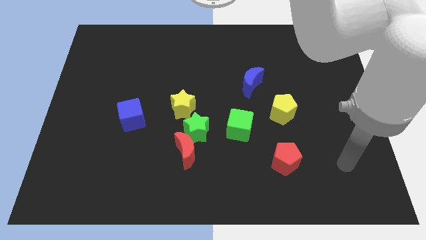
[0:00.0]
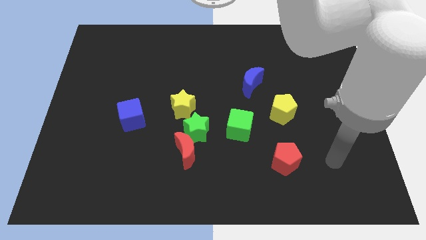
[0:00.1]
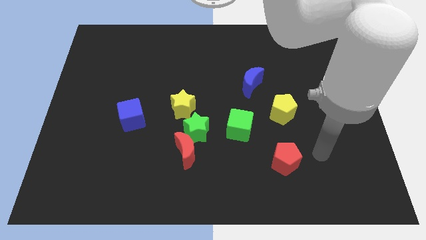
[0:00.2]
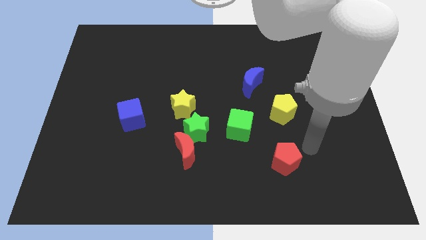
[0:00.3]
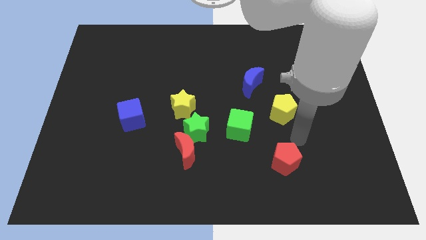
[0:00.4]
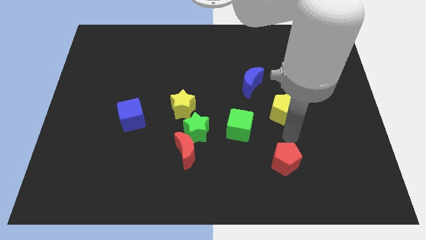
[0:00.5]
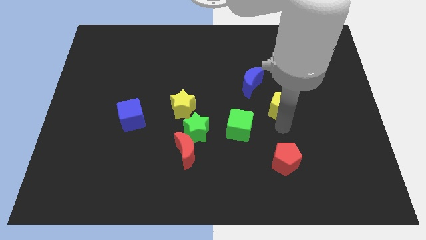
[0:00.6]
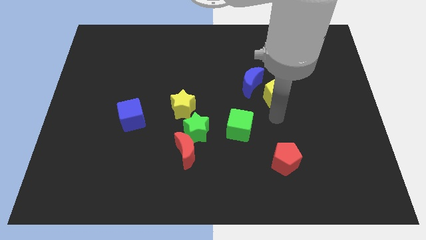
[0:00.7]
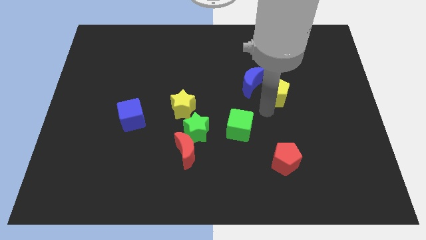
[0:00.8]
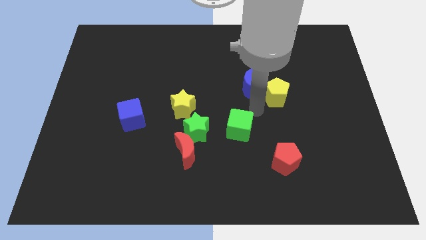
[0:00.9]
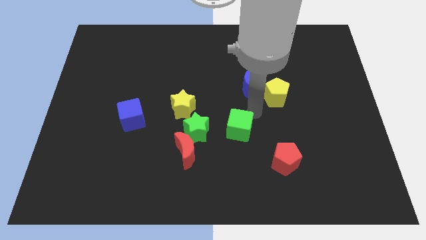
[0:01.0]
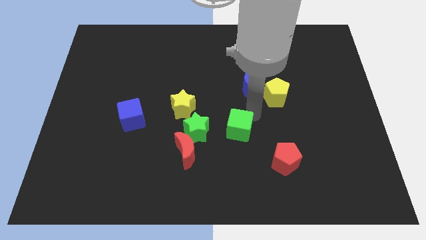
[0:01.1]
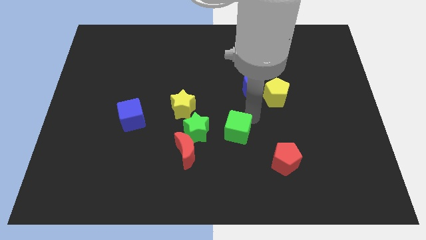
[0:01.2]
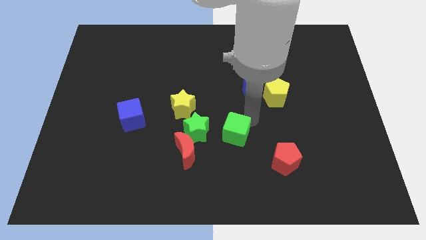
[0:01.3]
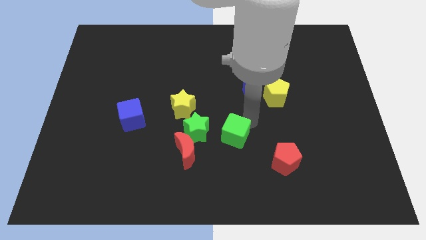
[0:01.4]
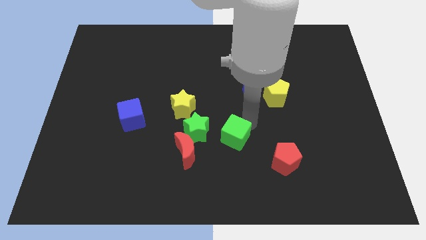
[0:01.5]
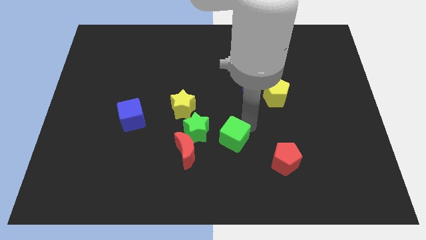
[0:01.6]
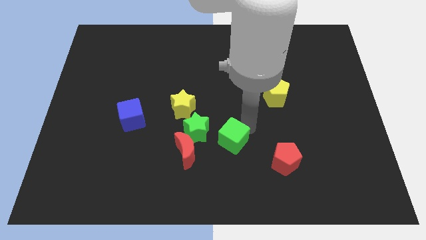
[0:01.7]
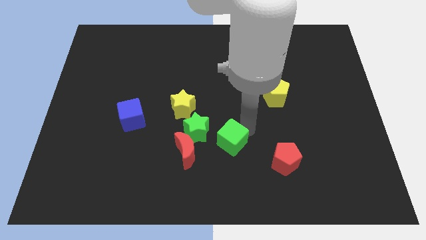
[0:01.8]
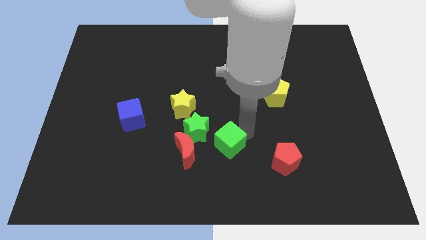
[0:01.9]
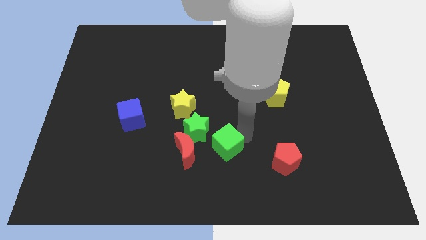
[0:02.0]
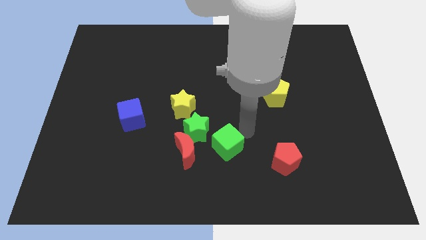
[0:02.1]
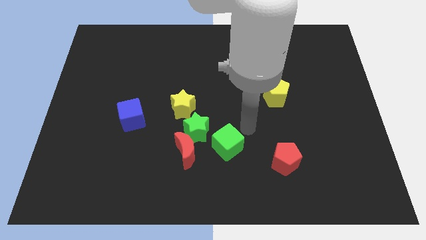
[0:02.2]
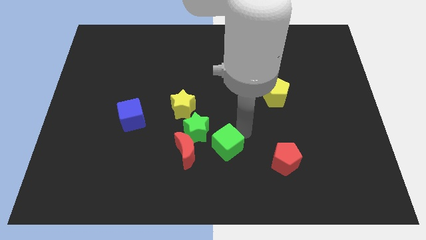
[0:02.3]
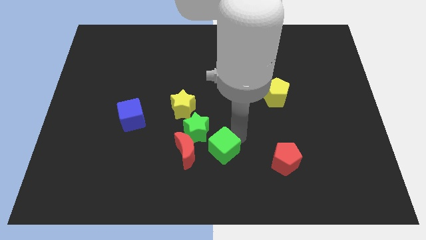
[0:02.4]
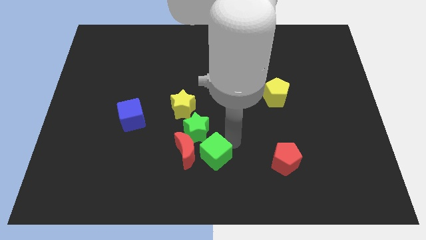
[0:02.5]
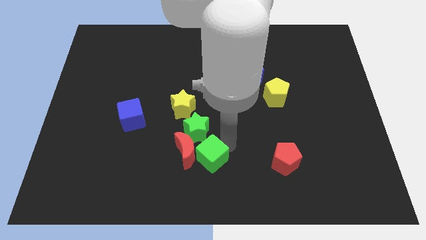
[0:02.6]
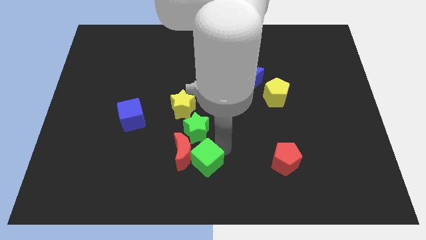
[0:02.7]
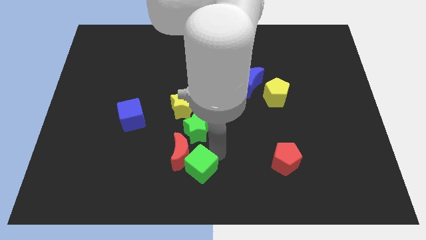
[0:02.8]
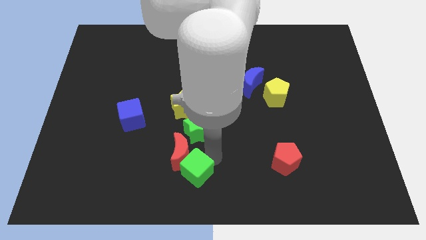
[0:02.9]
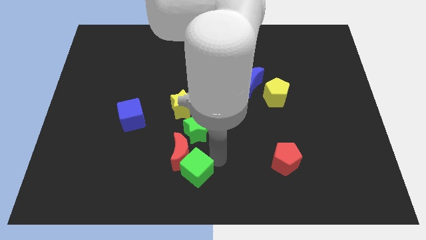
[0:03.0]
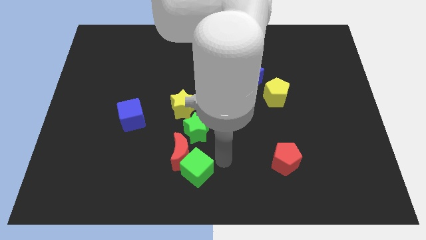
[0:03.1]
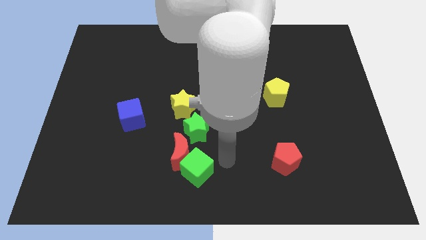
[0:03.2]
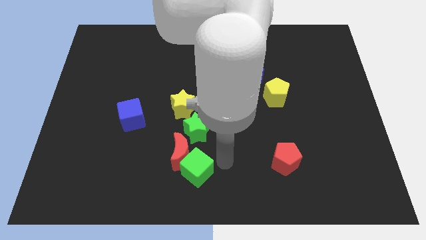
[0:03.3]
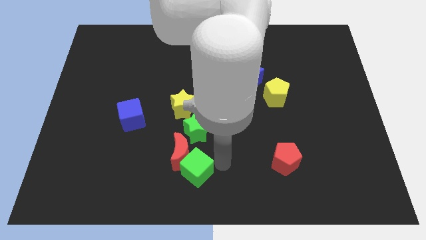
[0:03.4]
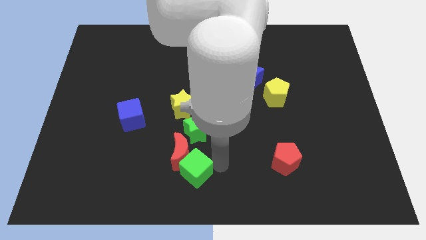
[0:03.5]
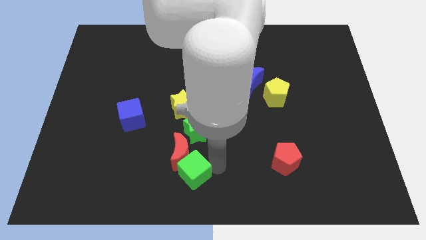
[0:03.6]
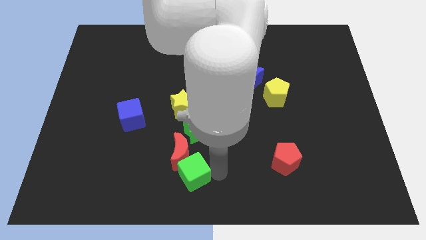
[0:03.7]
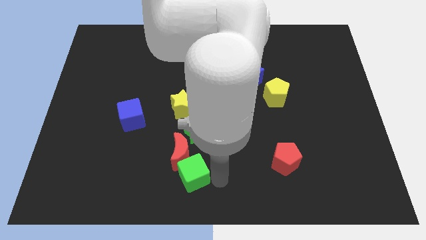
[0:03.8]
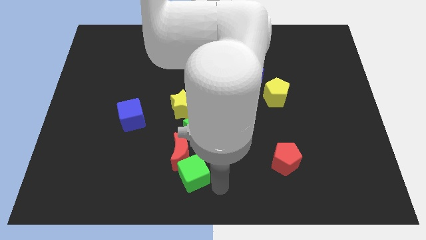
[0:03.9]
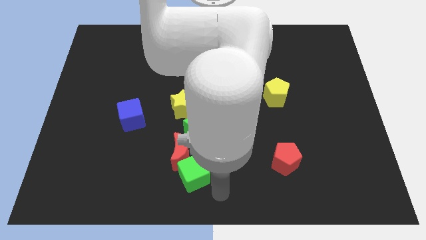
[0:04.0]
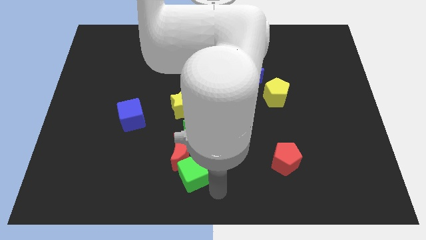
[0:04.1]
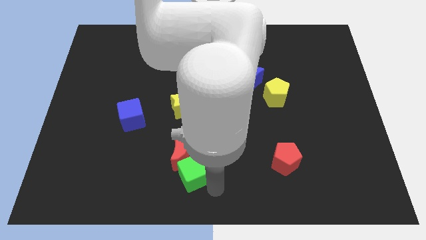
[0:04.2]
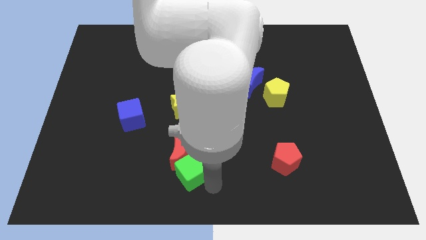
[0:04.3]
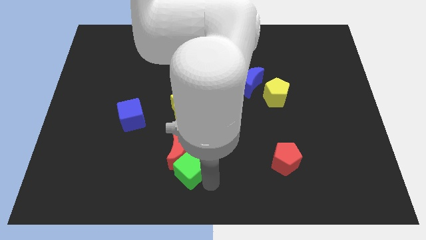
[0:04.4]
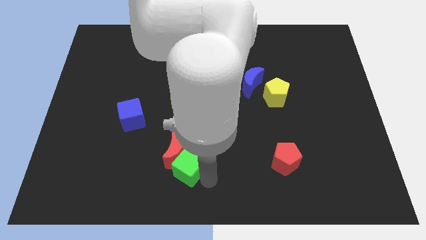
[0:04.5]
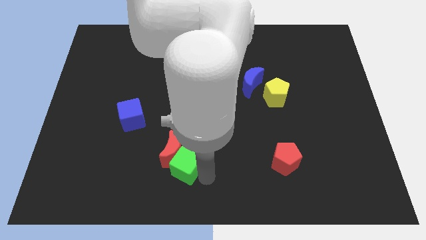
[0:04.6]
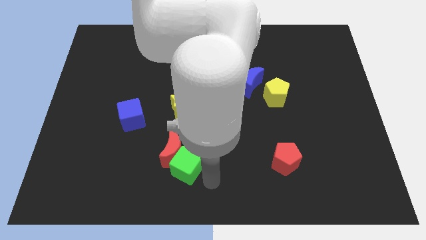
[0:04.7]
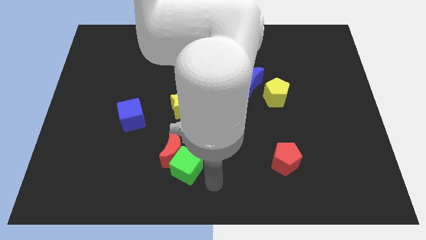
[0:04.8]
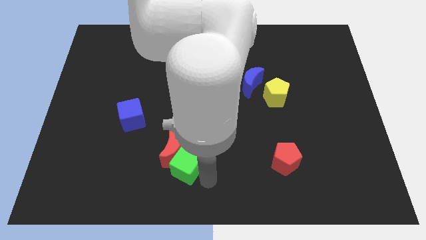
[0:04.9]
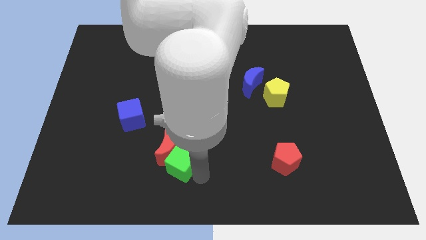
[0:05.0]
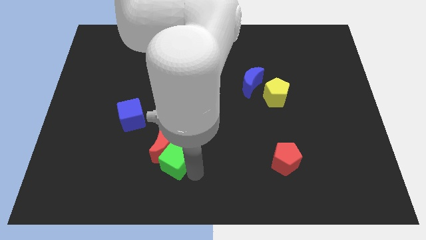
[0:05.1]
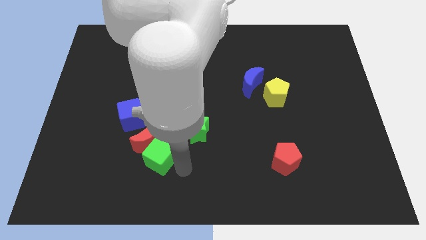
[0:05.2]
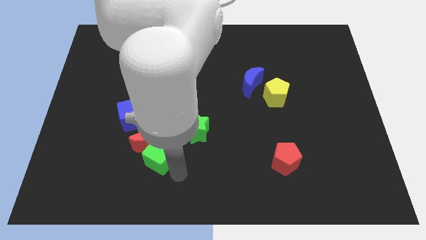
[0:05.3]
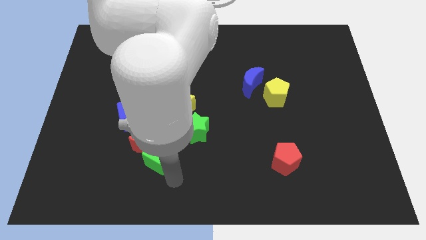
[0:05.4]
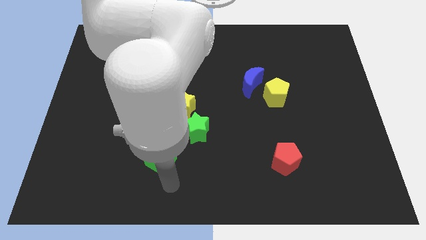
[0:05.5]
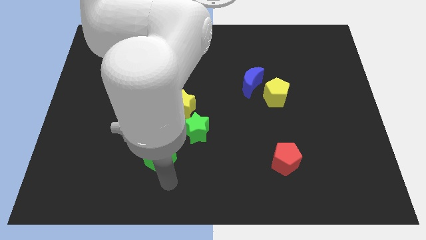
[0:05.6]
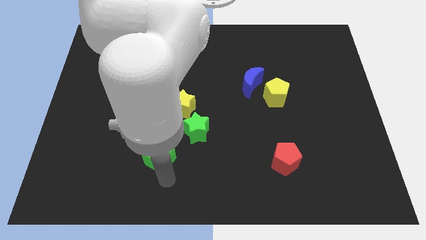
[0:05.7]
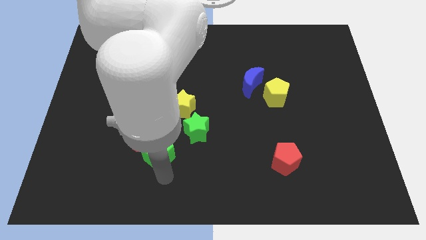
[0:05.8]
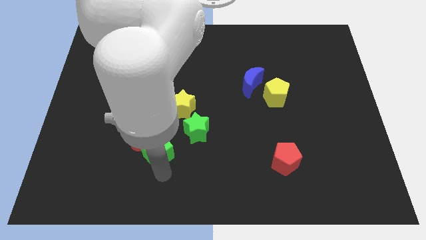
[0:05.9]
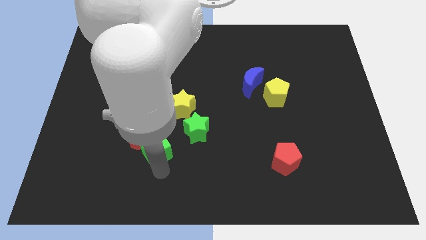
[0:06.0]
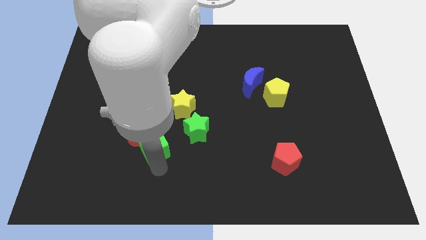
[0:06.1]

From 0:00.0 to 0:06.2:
push the green cube just left of the green star

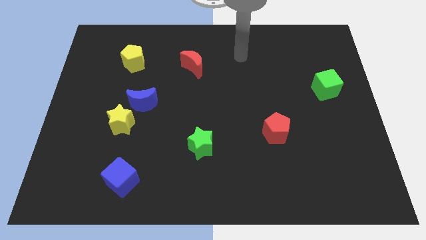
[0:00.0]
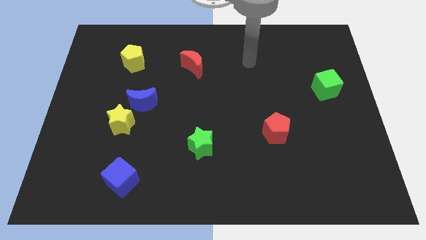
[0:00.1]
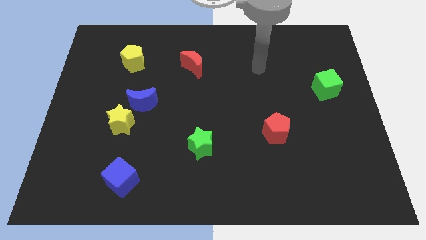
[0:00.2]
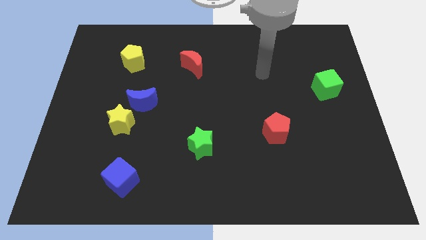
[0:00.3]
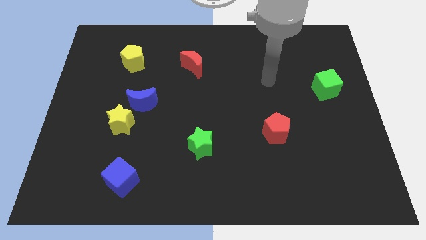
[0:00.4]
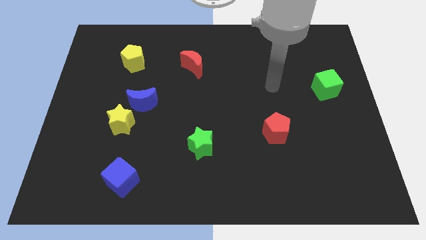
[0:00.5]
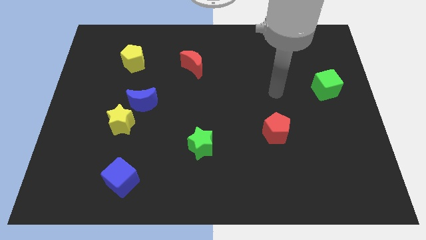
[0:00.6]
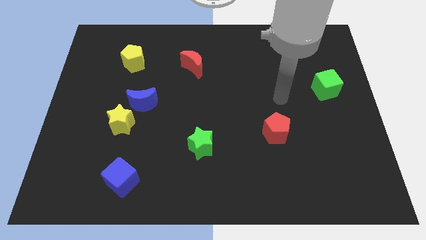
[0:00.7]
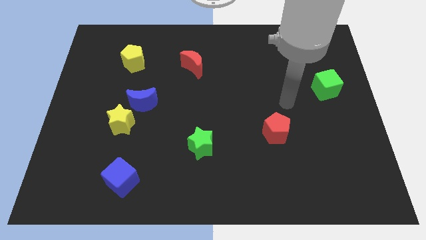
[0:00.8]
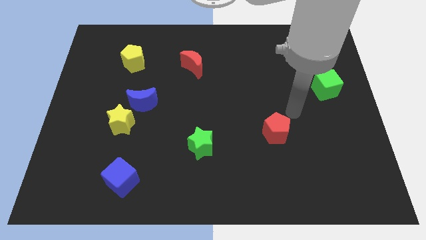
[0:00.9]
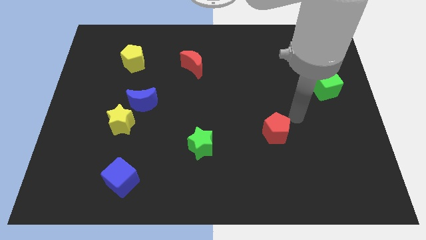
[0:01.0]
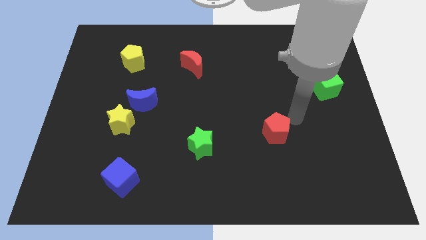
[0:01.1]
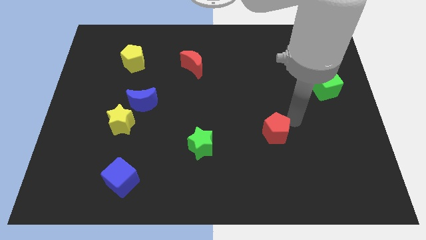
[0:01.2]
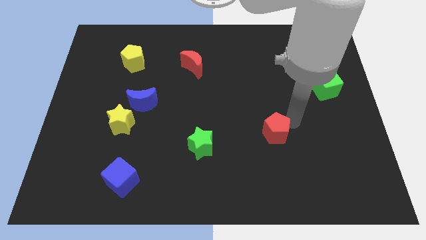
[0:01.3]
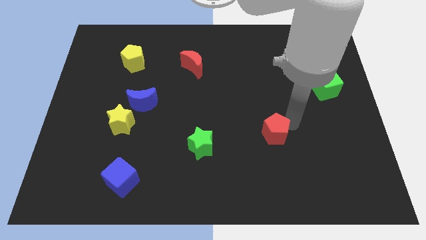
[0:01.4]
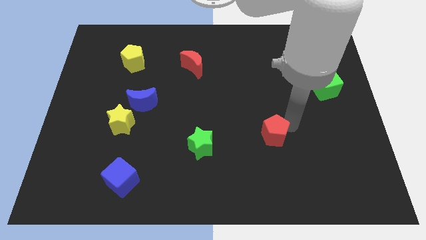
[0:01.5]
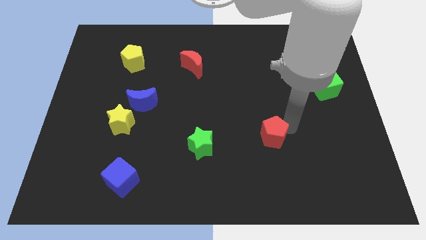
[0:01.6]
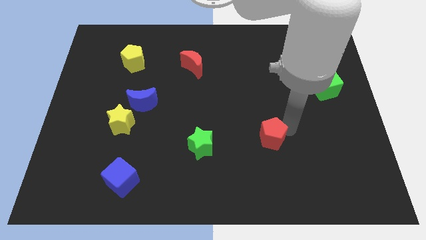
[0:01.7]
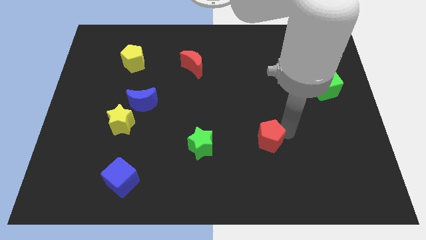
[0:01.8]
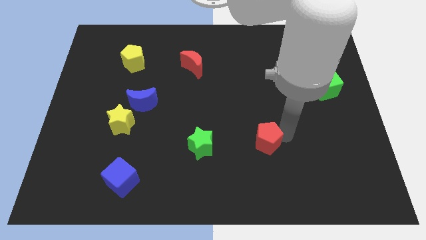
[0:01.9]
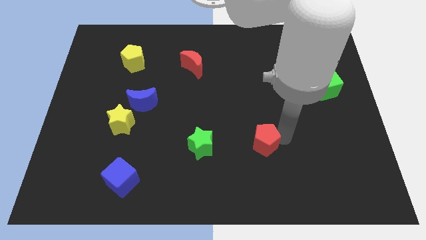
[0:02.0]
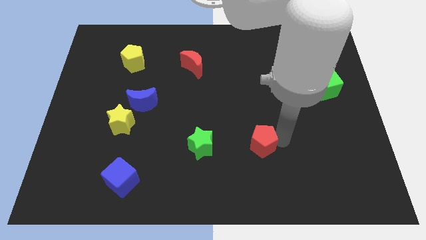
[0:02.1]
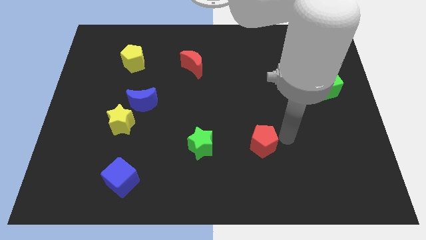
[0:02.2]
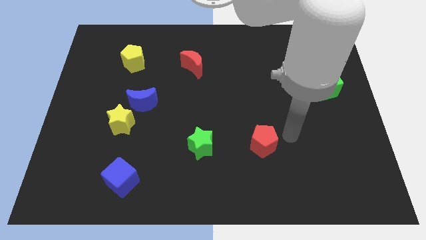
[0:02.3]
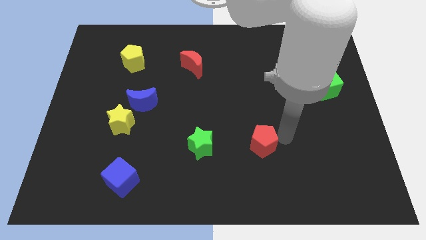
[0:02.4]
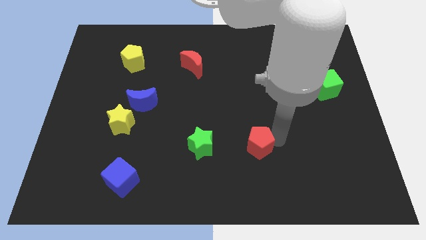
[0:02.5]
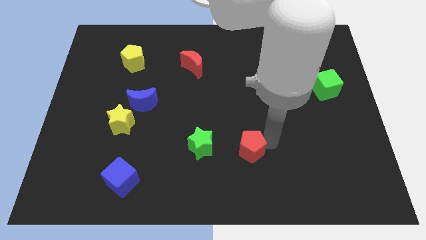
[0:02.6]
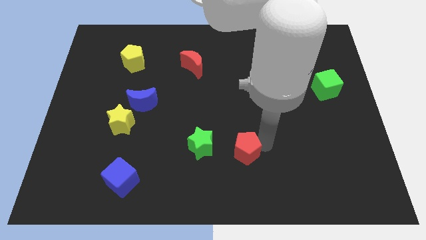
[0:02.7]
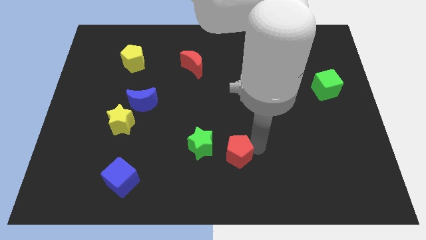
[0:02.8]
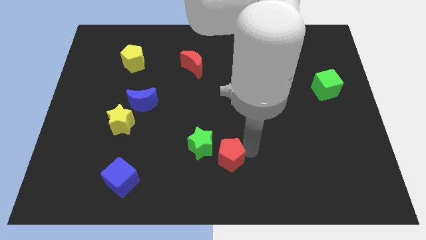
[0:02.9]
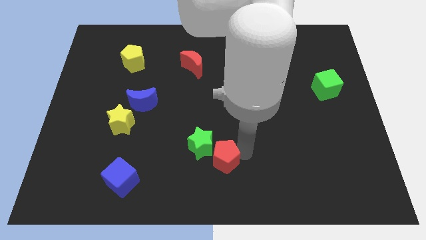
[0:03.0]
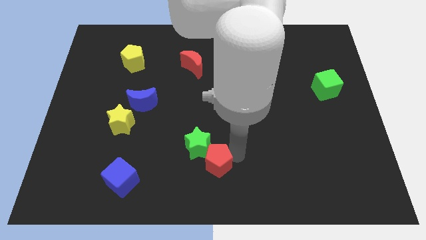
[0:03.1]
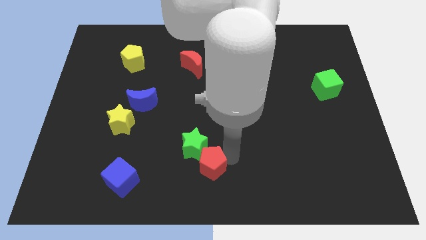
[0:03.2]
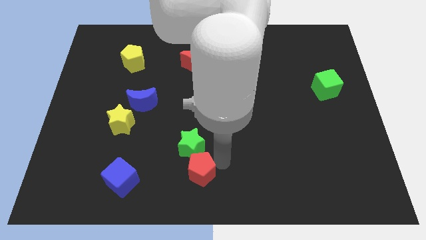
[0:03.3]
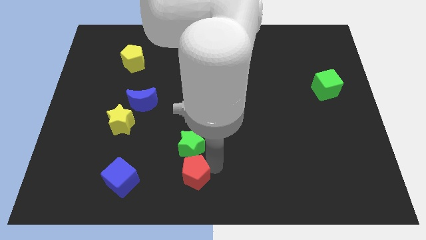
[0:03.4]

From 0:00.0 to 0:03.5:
move the red pentagon to the right of the blue cube
